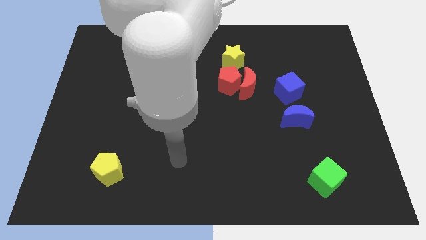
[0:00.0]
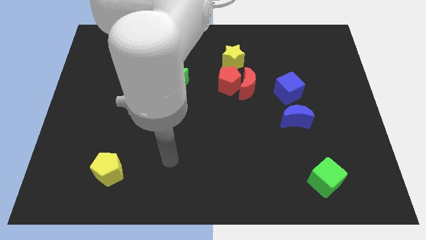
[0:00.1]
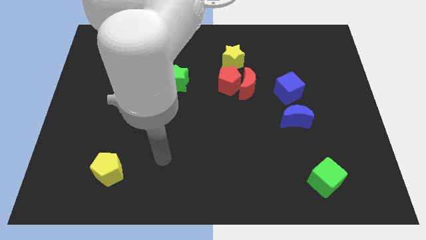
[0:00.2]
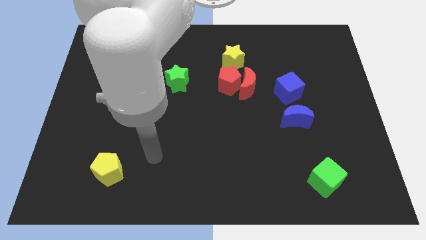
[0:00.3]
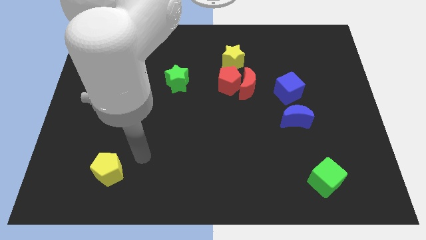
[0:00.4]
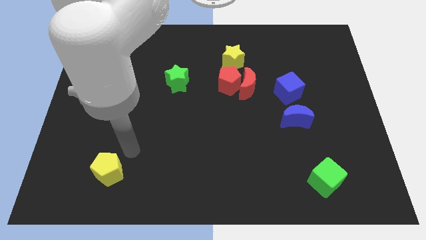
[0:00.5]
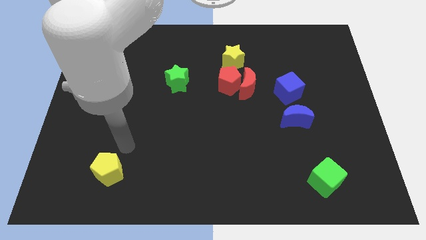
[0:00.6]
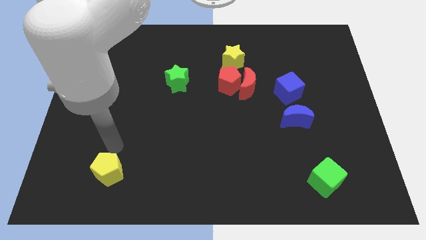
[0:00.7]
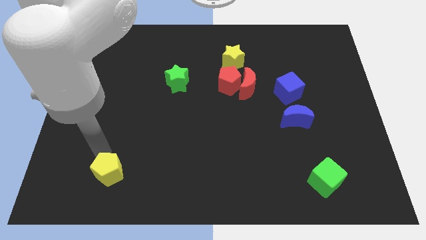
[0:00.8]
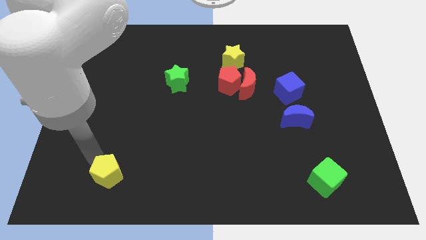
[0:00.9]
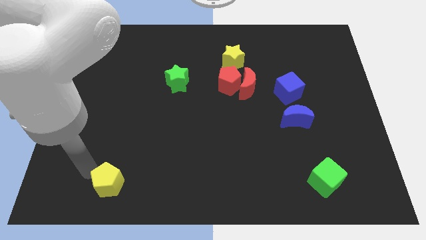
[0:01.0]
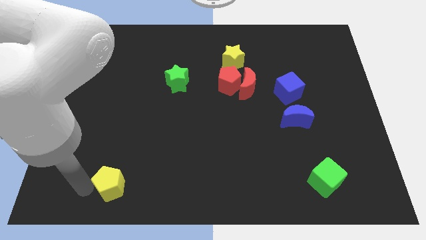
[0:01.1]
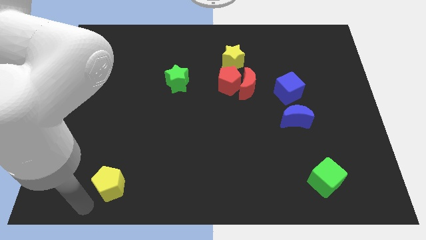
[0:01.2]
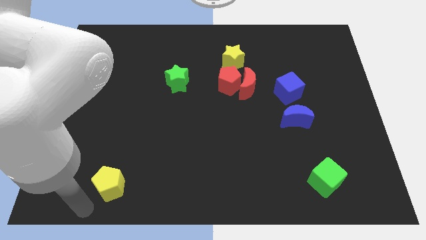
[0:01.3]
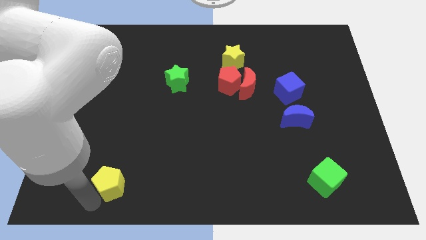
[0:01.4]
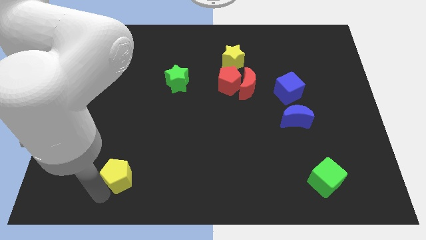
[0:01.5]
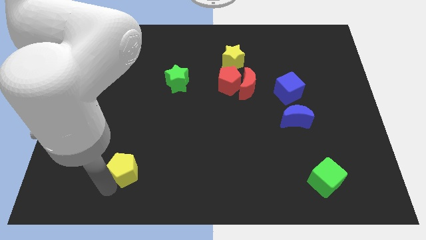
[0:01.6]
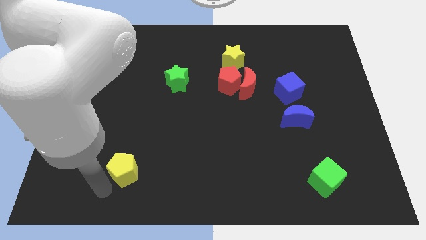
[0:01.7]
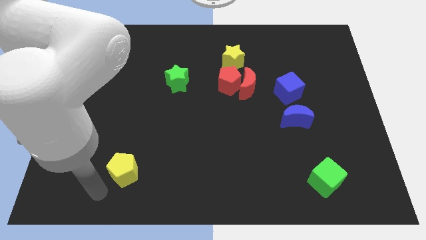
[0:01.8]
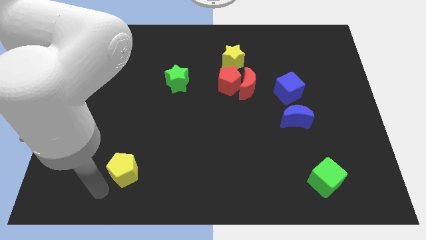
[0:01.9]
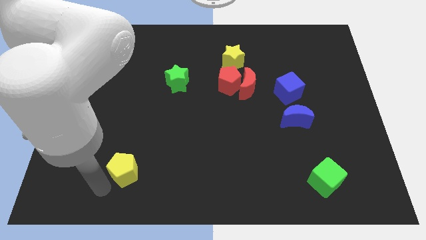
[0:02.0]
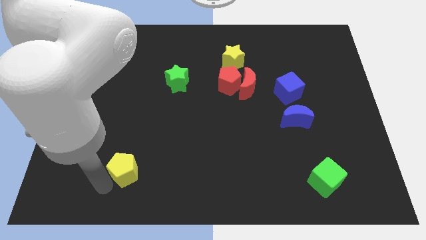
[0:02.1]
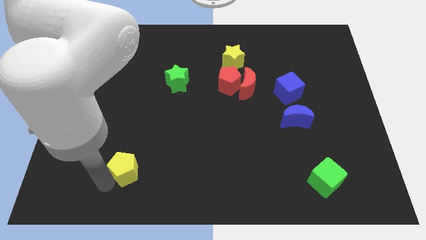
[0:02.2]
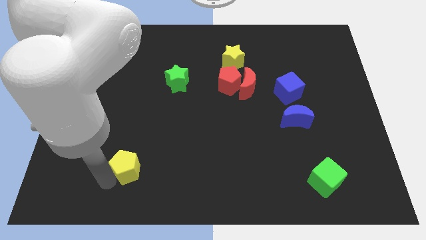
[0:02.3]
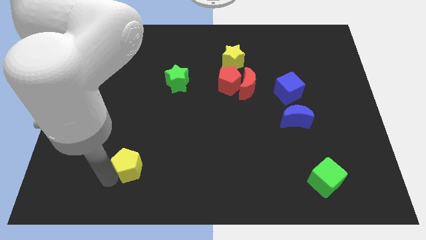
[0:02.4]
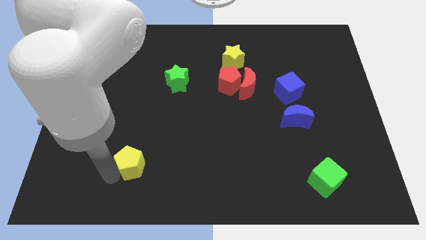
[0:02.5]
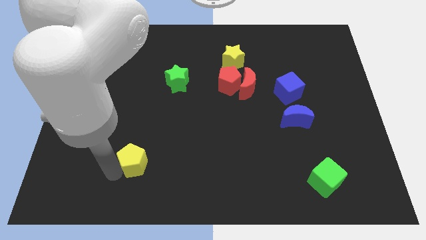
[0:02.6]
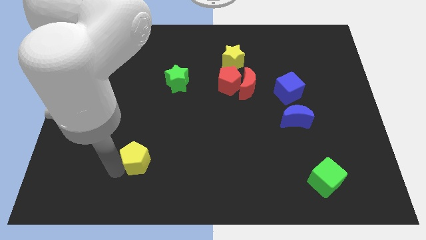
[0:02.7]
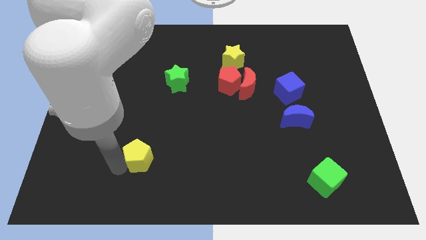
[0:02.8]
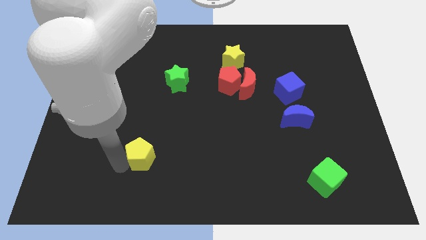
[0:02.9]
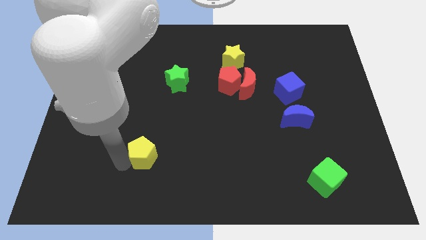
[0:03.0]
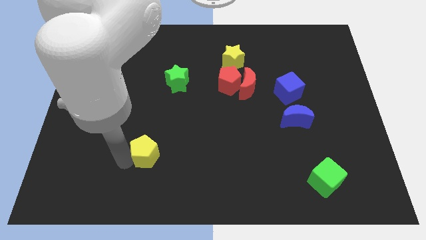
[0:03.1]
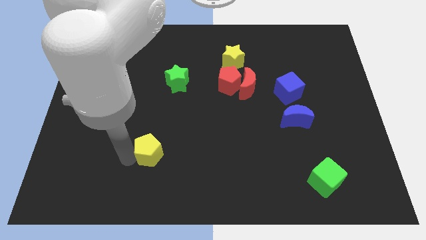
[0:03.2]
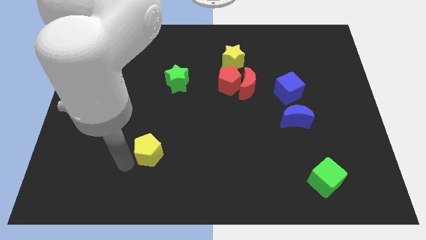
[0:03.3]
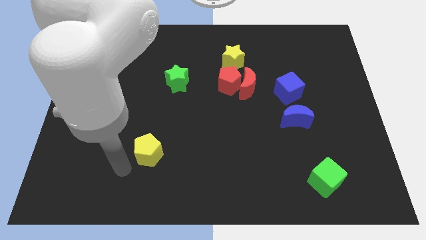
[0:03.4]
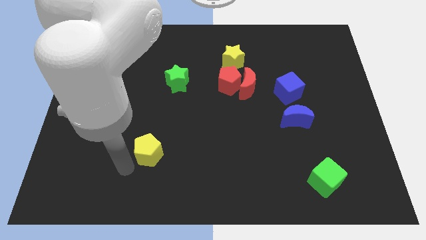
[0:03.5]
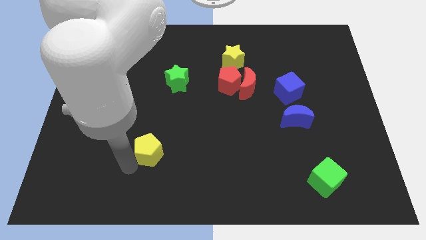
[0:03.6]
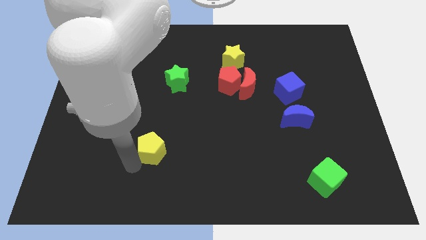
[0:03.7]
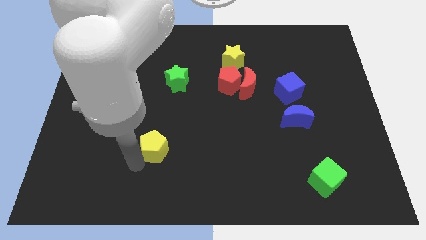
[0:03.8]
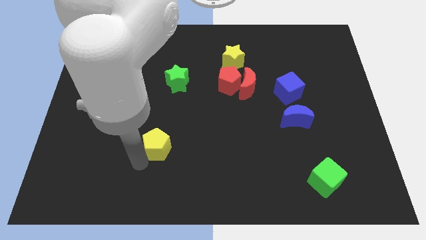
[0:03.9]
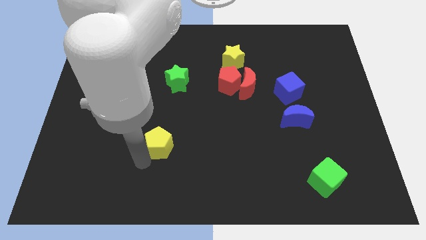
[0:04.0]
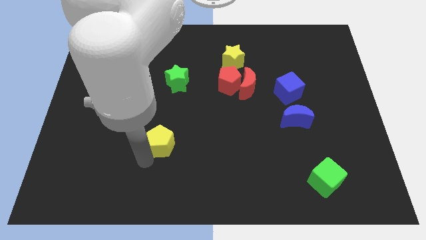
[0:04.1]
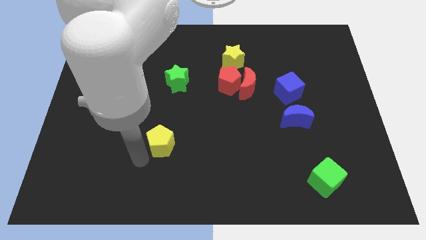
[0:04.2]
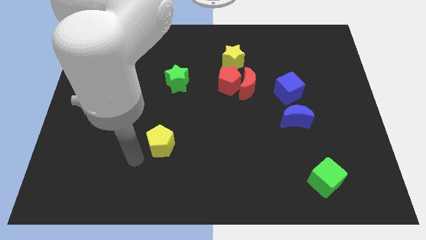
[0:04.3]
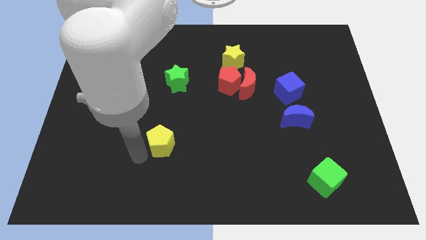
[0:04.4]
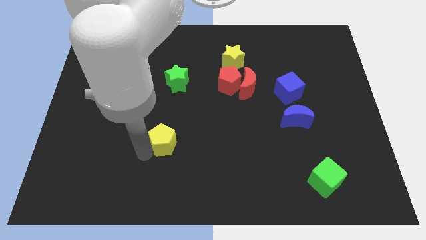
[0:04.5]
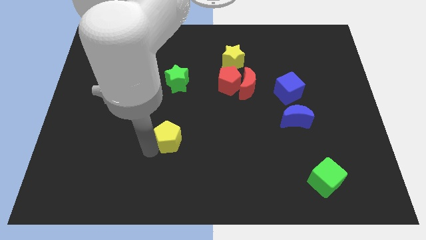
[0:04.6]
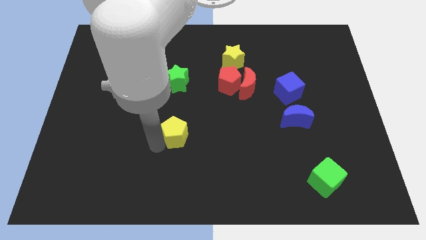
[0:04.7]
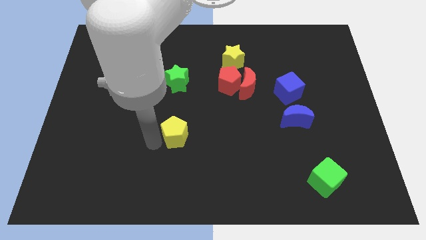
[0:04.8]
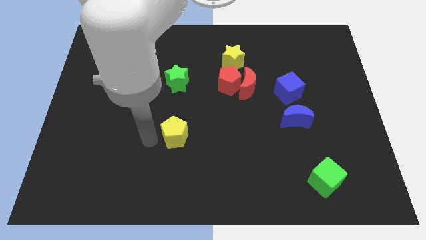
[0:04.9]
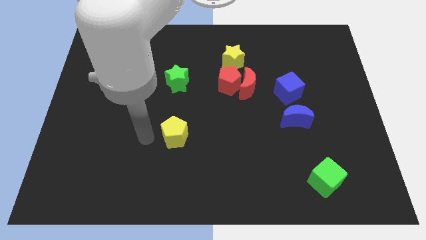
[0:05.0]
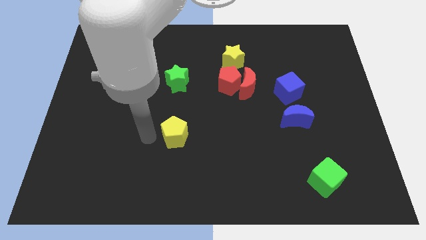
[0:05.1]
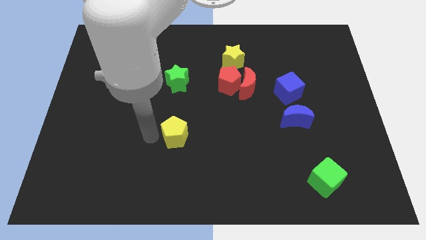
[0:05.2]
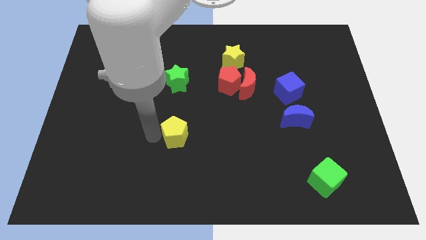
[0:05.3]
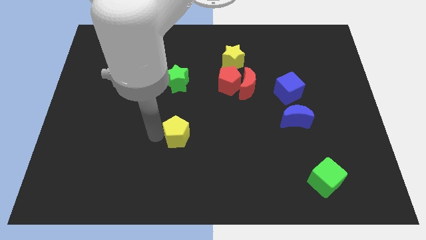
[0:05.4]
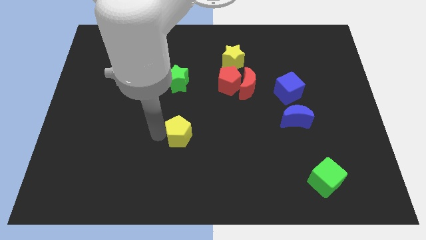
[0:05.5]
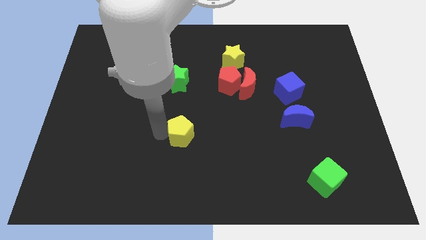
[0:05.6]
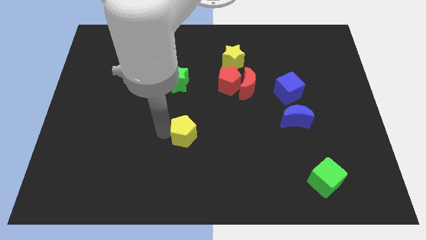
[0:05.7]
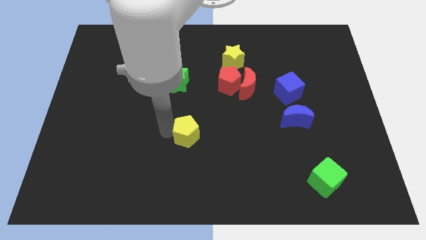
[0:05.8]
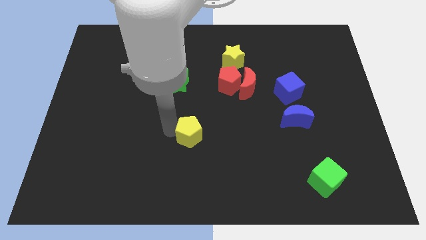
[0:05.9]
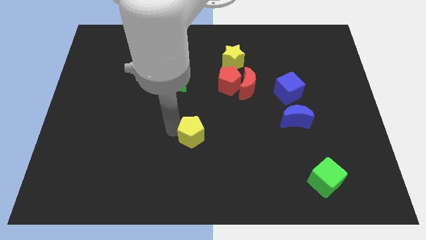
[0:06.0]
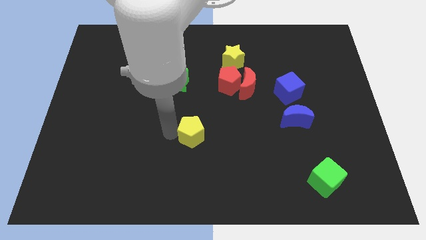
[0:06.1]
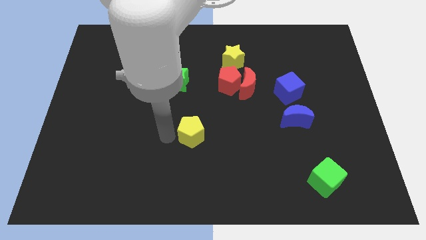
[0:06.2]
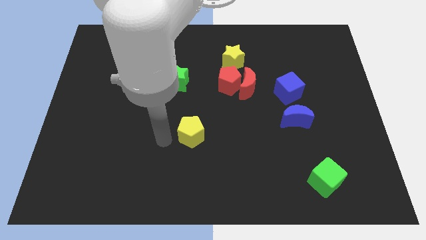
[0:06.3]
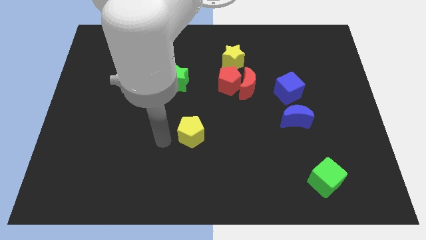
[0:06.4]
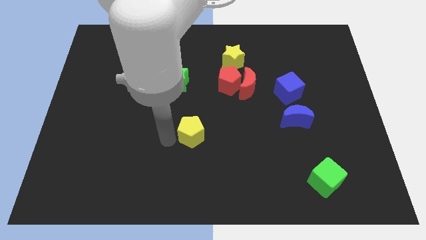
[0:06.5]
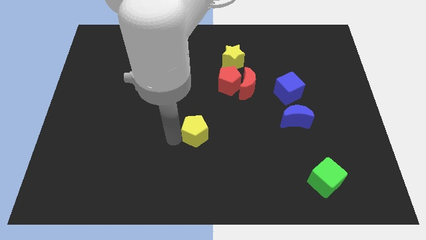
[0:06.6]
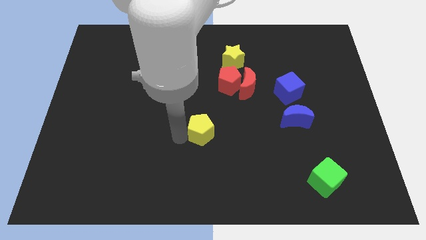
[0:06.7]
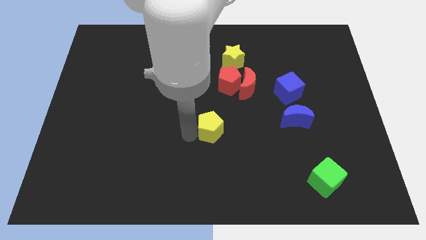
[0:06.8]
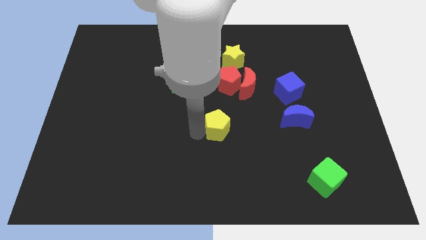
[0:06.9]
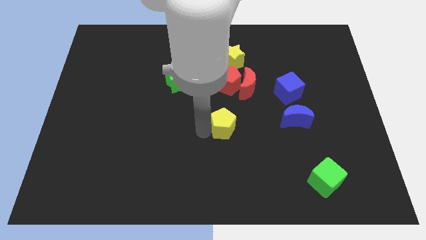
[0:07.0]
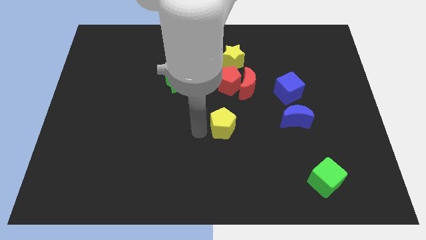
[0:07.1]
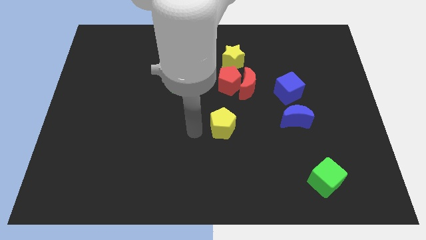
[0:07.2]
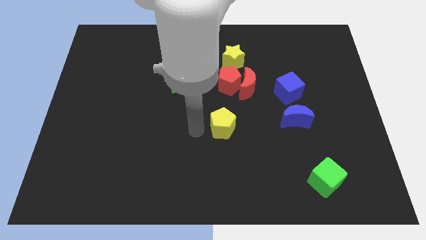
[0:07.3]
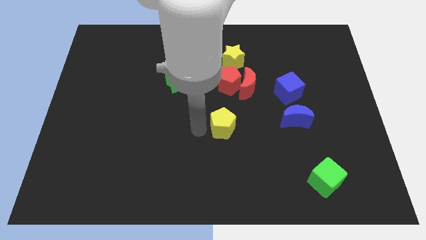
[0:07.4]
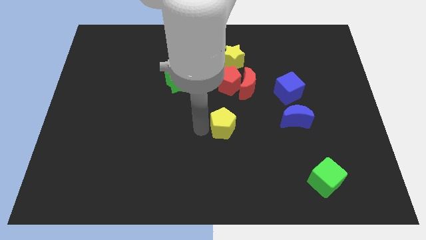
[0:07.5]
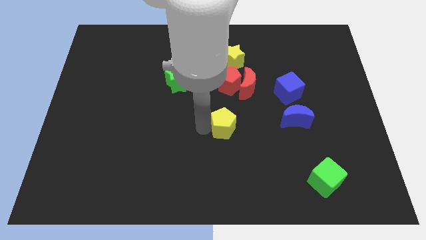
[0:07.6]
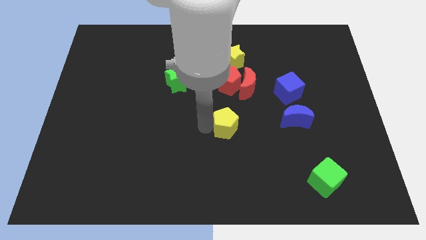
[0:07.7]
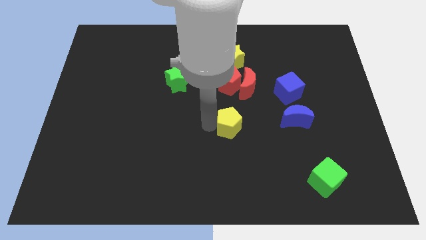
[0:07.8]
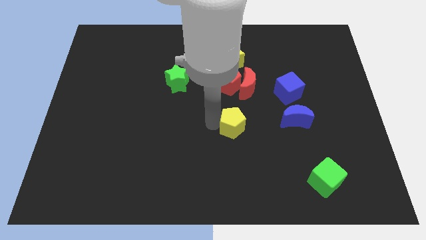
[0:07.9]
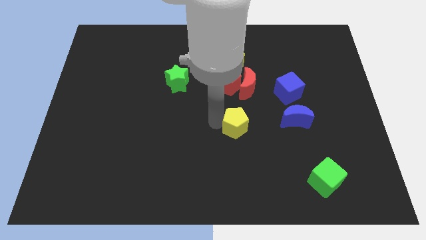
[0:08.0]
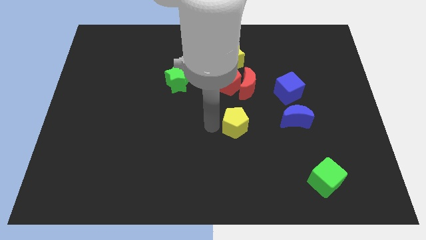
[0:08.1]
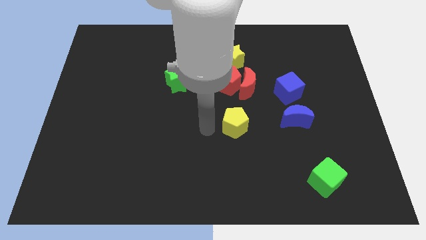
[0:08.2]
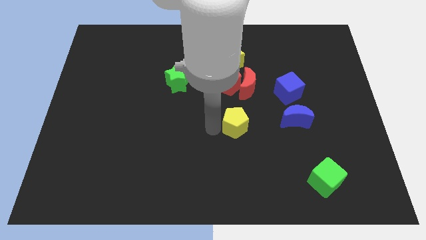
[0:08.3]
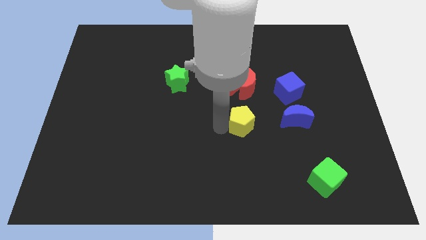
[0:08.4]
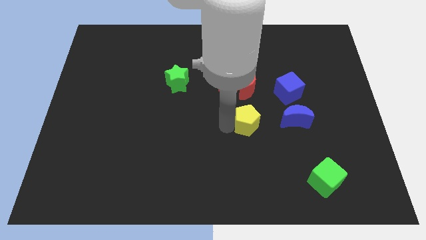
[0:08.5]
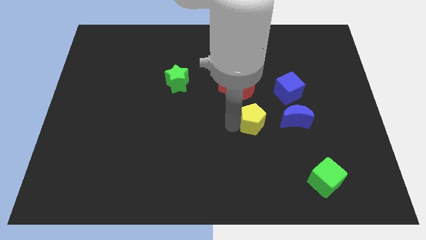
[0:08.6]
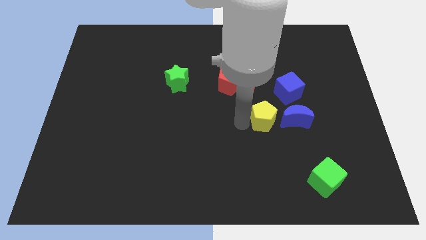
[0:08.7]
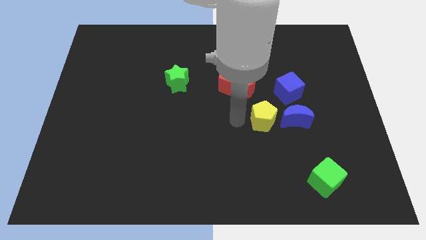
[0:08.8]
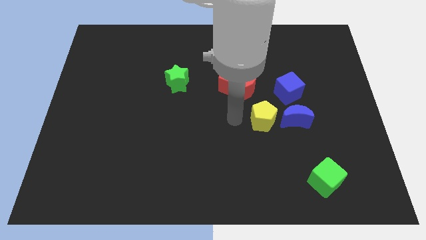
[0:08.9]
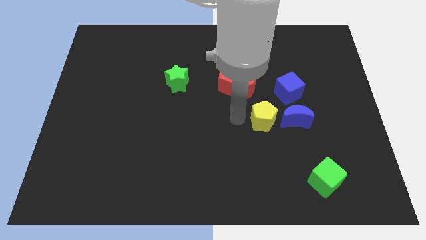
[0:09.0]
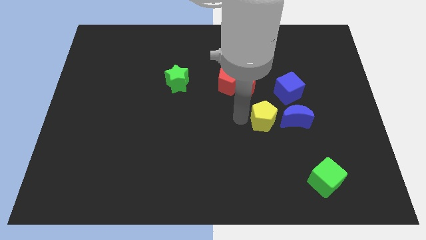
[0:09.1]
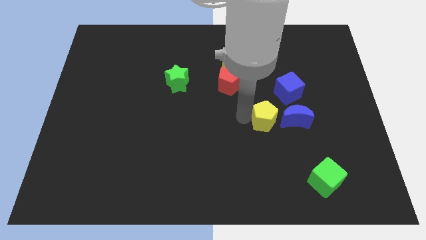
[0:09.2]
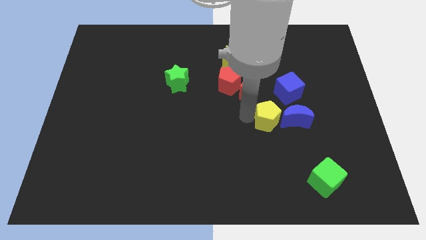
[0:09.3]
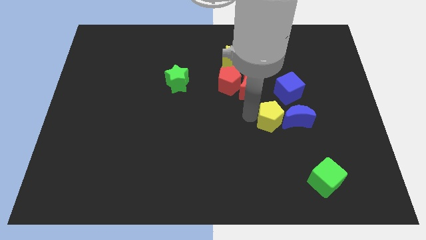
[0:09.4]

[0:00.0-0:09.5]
move the yellow pentagon towards the blue moon
